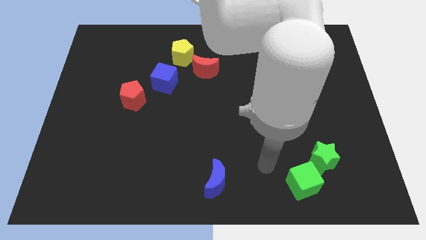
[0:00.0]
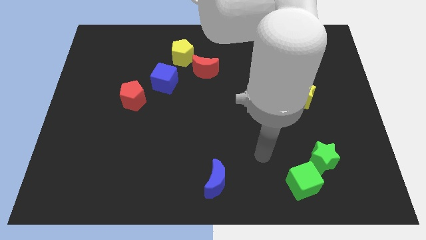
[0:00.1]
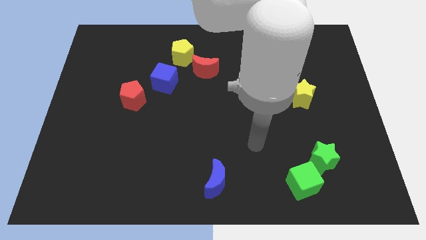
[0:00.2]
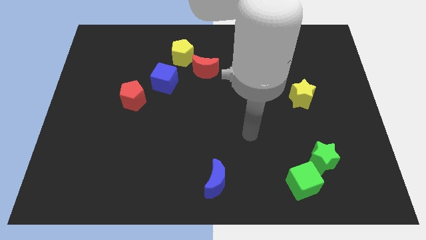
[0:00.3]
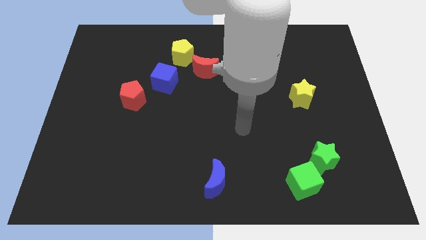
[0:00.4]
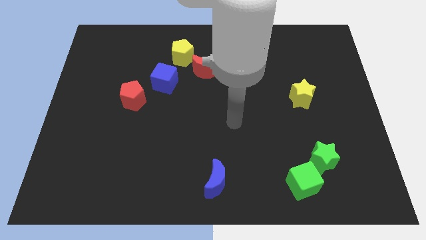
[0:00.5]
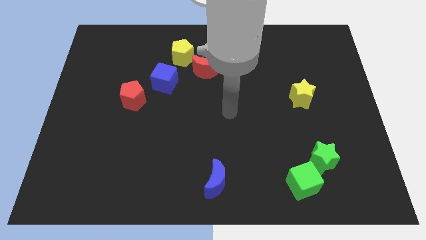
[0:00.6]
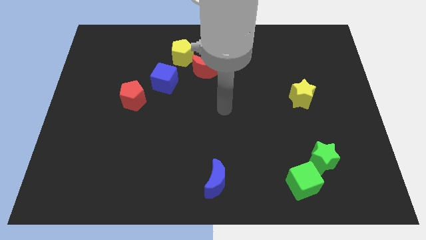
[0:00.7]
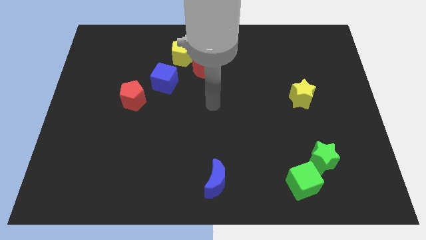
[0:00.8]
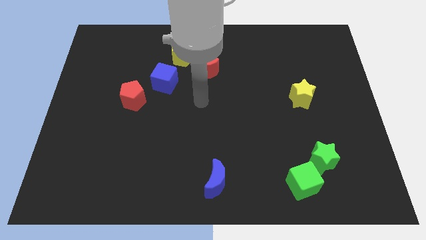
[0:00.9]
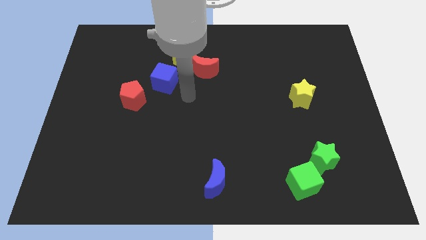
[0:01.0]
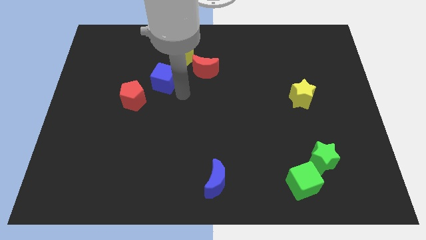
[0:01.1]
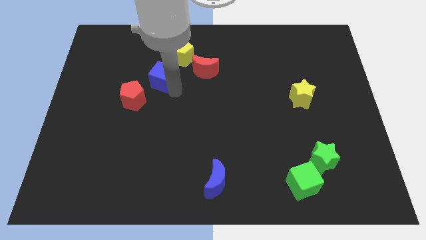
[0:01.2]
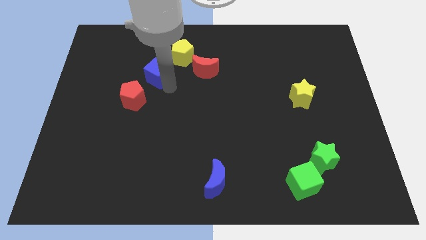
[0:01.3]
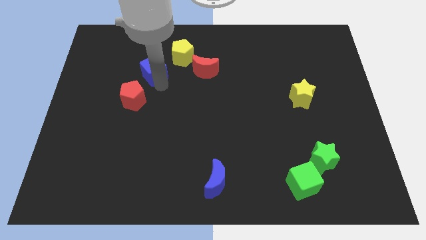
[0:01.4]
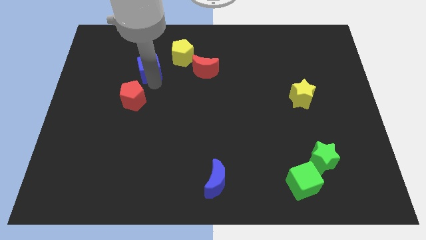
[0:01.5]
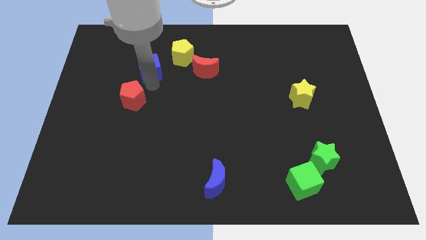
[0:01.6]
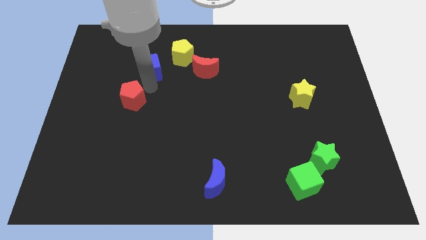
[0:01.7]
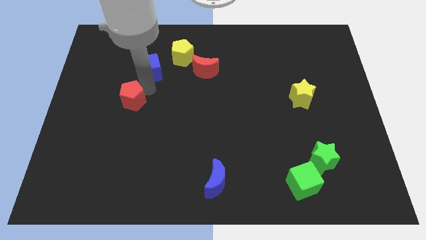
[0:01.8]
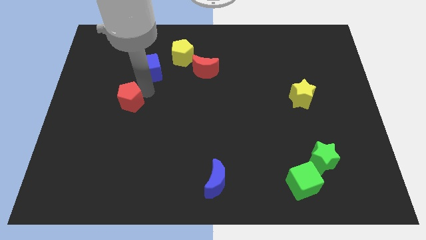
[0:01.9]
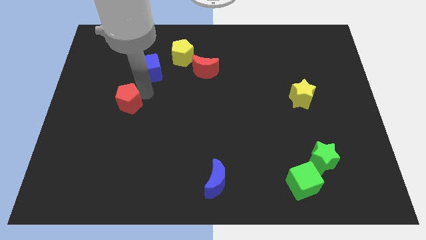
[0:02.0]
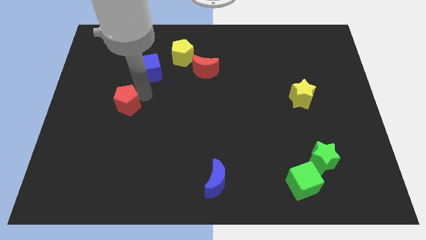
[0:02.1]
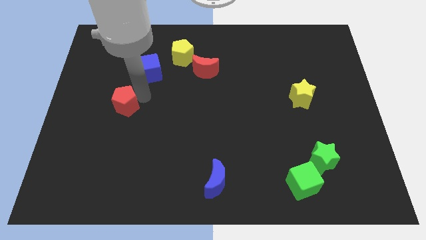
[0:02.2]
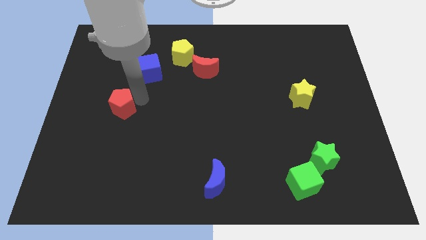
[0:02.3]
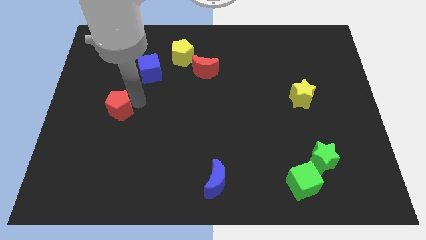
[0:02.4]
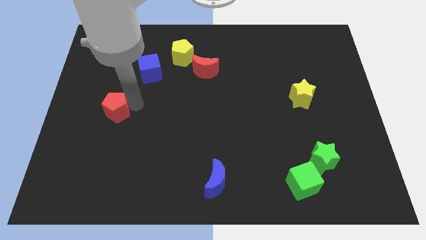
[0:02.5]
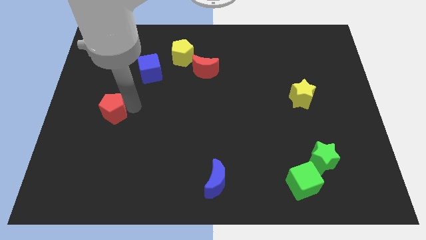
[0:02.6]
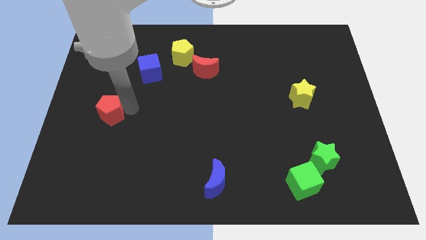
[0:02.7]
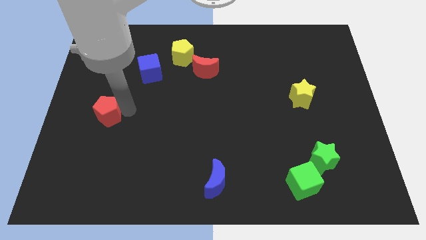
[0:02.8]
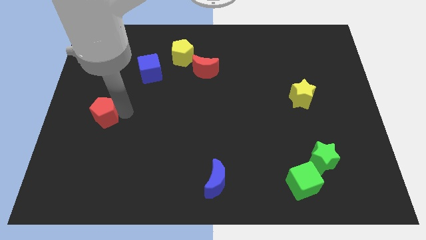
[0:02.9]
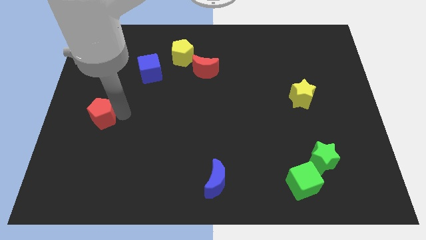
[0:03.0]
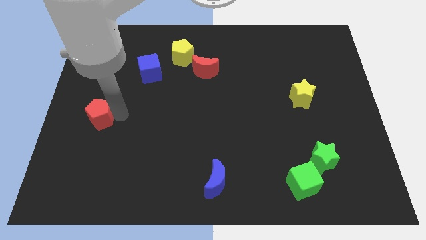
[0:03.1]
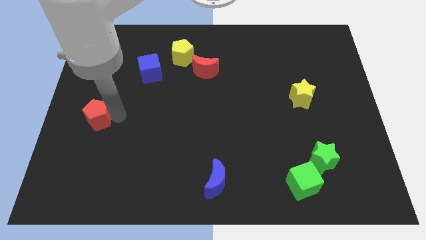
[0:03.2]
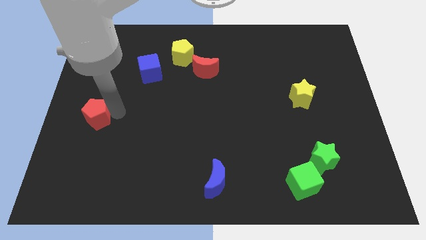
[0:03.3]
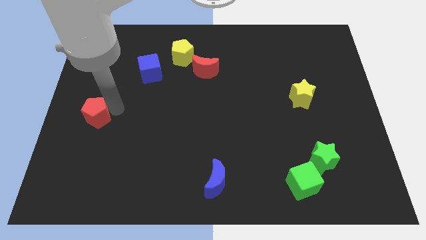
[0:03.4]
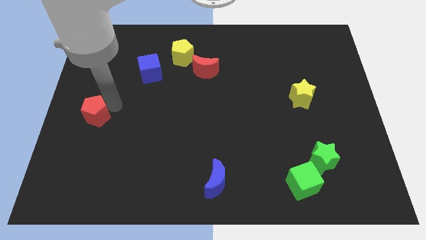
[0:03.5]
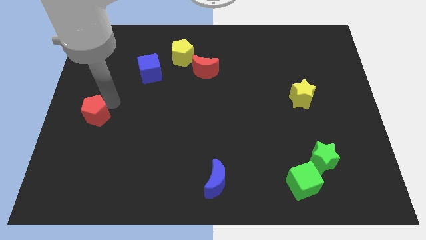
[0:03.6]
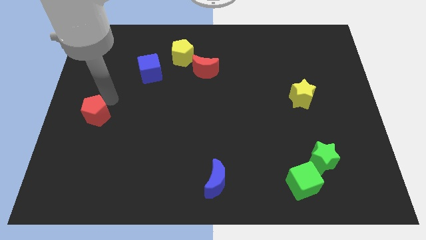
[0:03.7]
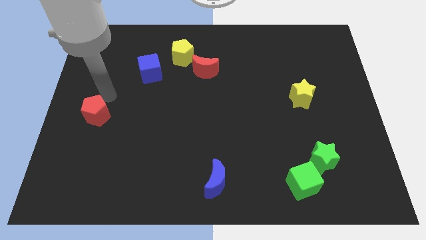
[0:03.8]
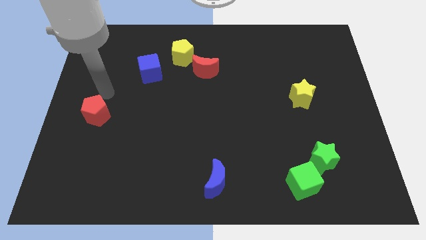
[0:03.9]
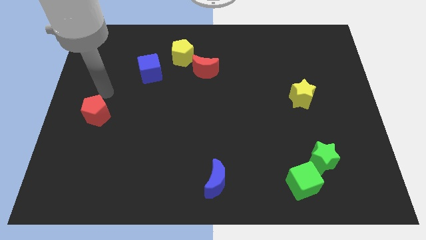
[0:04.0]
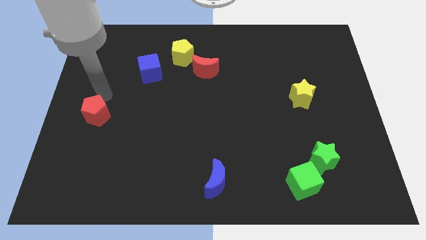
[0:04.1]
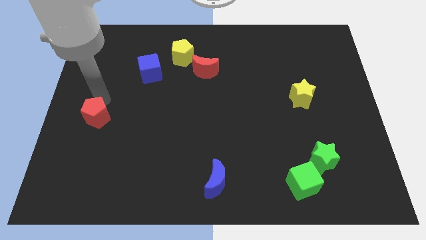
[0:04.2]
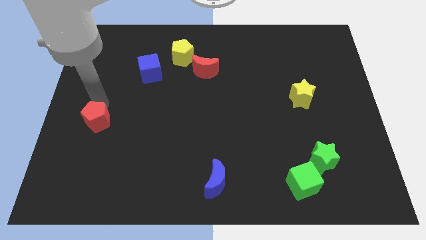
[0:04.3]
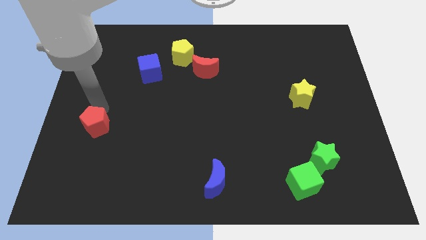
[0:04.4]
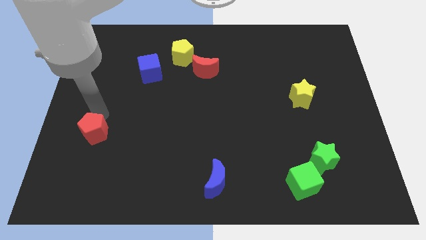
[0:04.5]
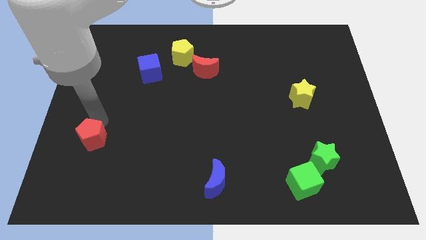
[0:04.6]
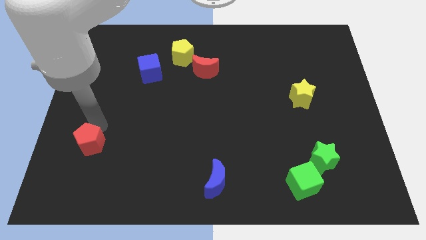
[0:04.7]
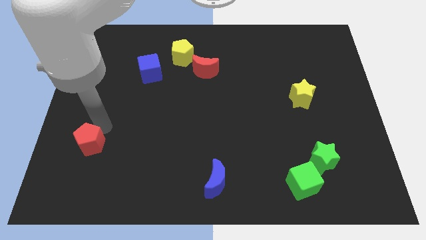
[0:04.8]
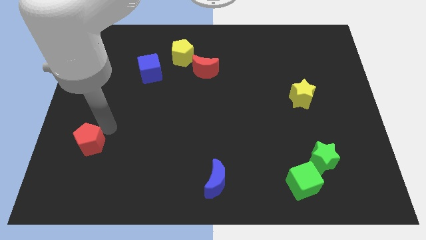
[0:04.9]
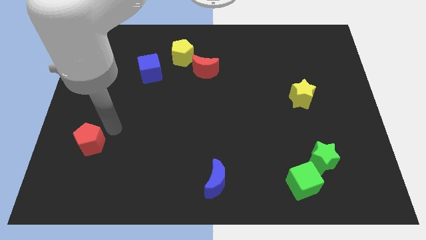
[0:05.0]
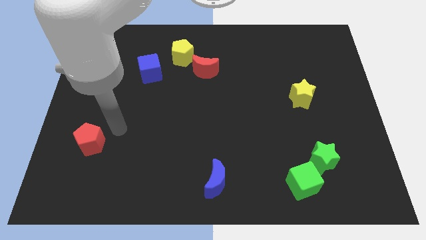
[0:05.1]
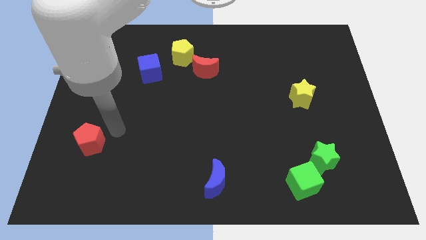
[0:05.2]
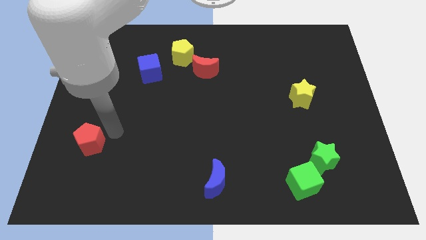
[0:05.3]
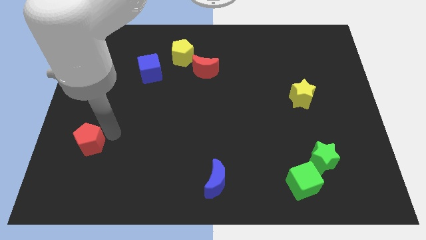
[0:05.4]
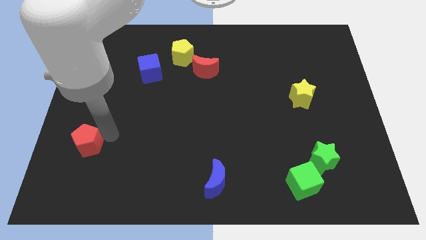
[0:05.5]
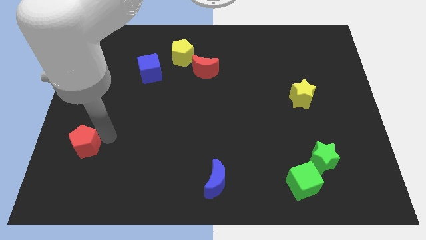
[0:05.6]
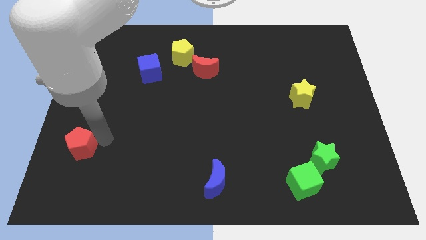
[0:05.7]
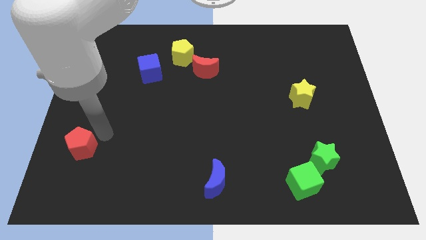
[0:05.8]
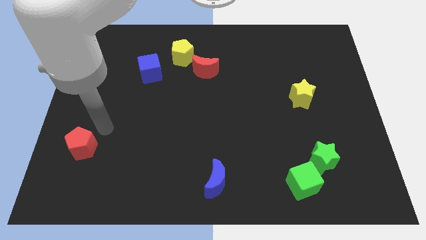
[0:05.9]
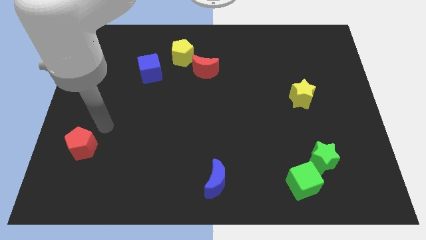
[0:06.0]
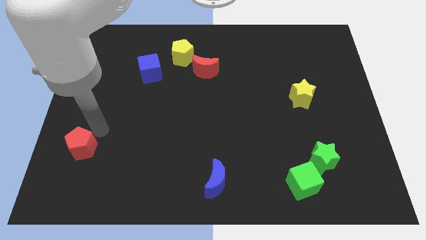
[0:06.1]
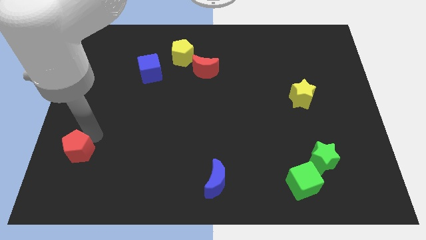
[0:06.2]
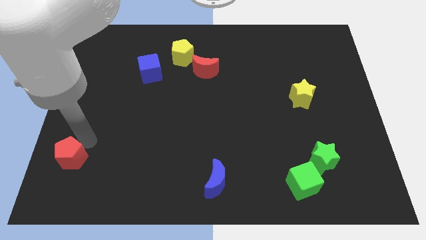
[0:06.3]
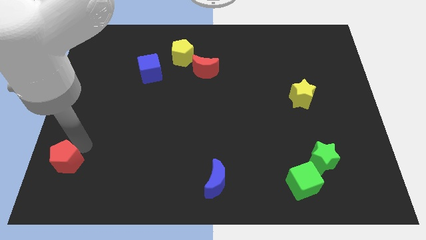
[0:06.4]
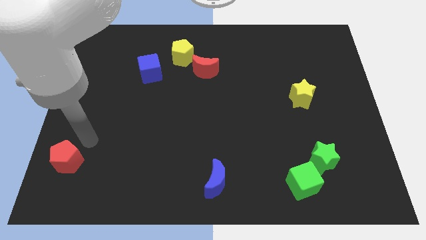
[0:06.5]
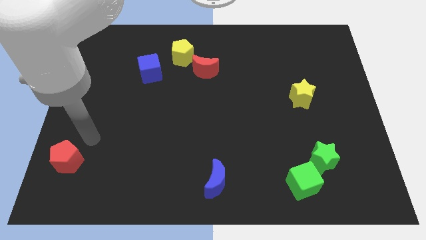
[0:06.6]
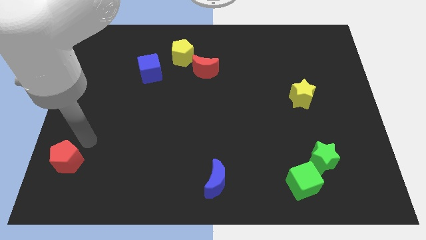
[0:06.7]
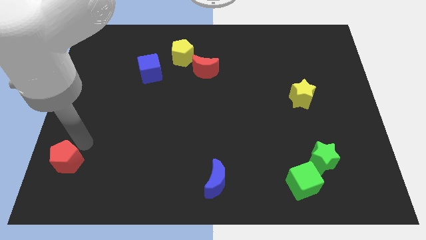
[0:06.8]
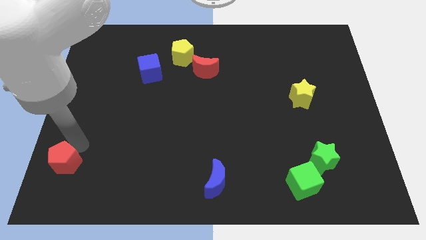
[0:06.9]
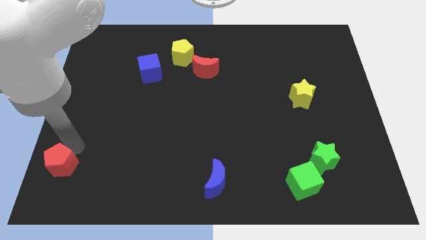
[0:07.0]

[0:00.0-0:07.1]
slide the red pentagon to the bottom left of the board
